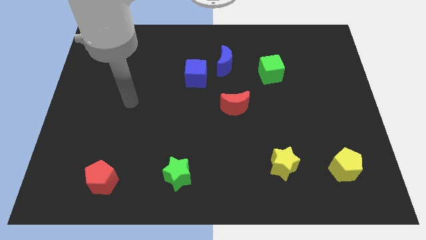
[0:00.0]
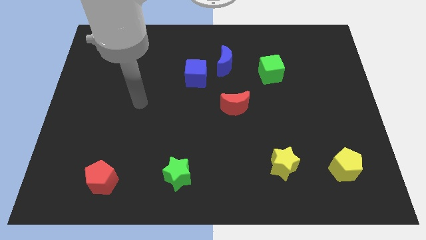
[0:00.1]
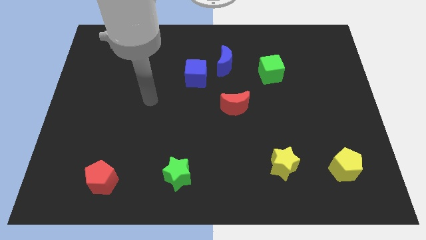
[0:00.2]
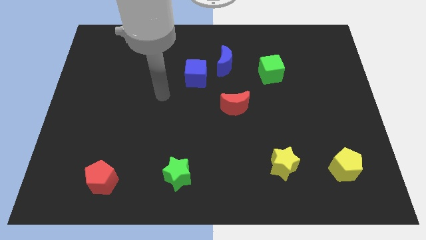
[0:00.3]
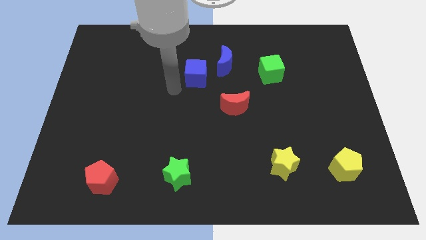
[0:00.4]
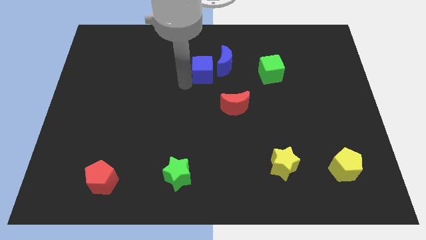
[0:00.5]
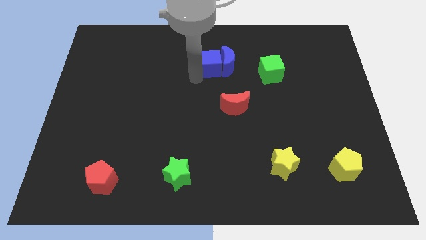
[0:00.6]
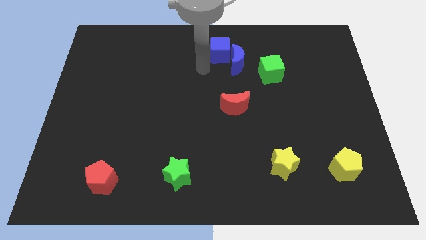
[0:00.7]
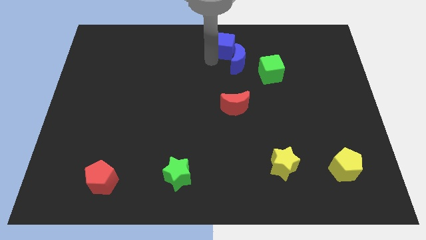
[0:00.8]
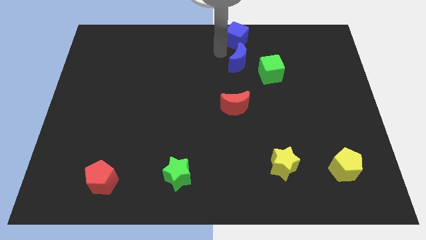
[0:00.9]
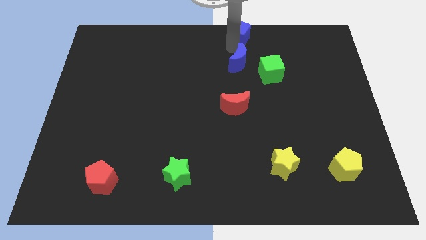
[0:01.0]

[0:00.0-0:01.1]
separate the blue moon from the blue cube

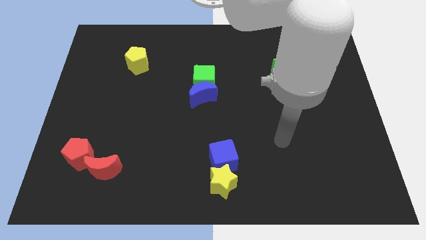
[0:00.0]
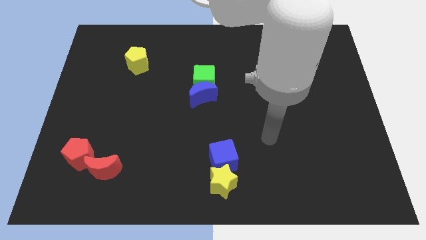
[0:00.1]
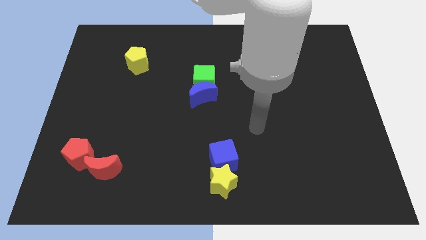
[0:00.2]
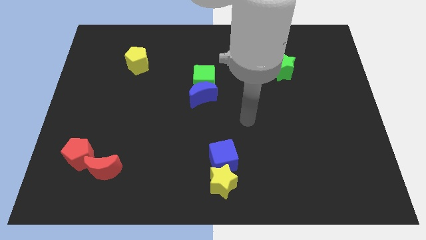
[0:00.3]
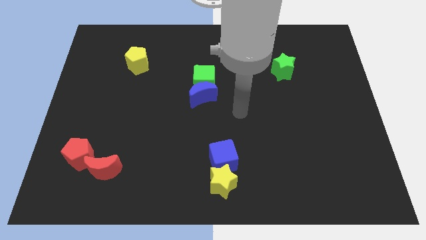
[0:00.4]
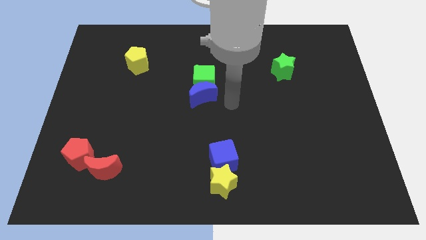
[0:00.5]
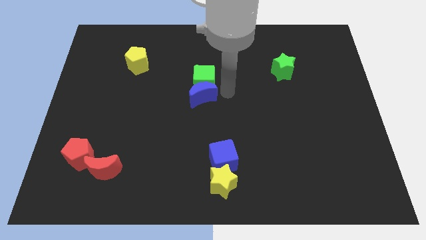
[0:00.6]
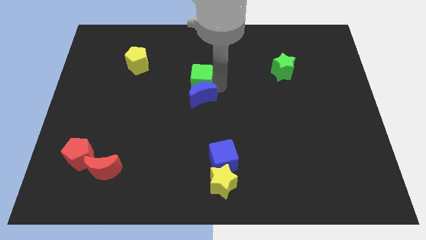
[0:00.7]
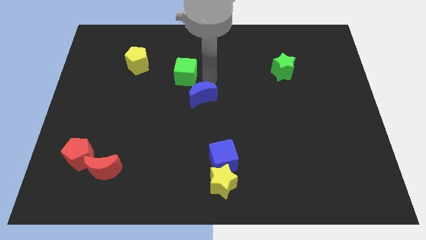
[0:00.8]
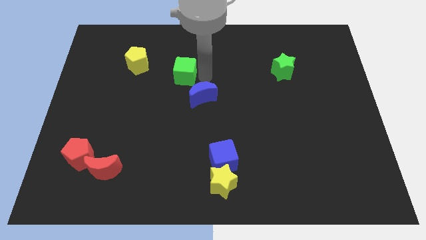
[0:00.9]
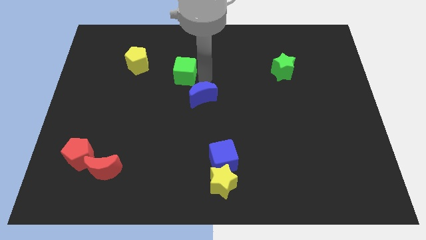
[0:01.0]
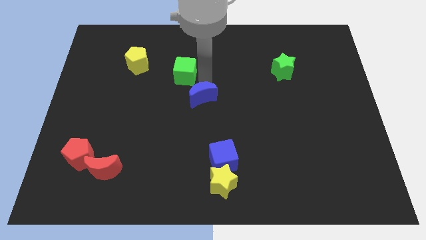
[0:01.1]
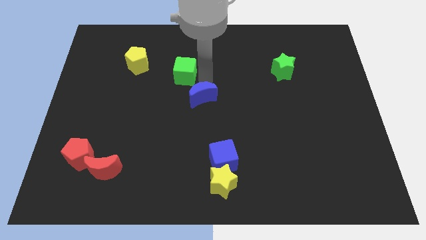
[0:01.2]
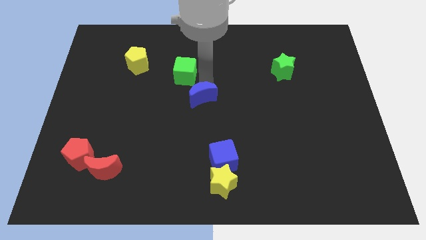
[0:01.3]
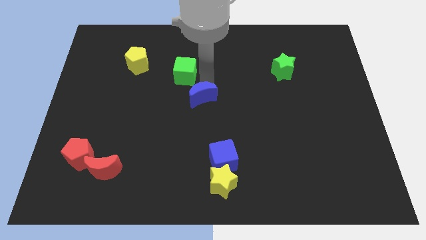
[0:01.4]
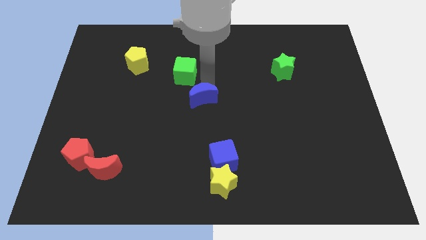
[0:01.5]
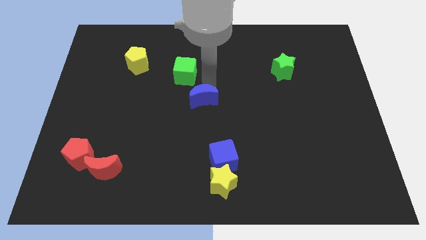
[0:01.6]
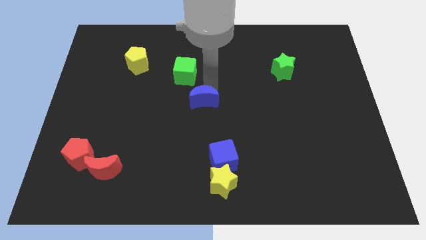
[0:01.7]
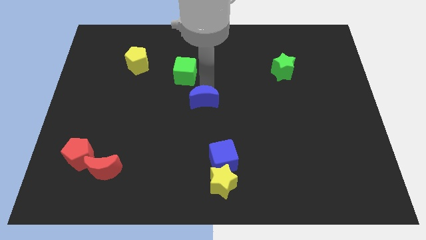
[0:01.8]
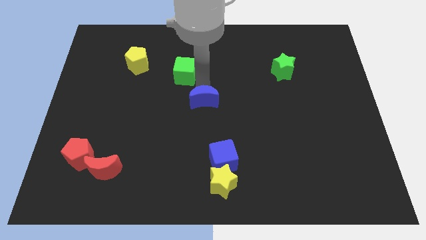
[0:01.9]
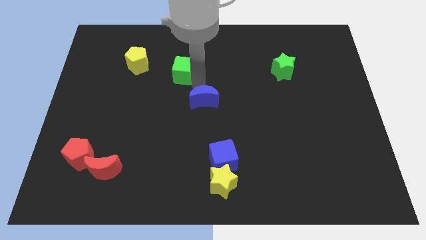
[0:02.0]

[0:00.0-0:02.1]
move the blue moon away from the green cube

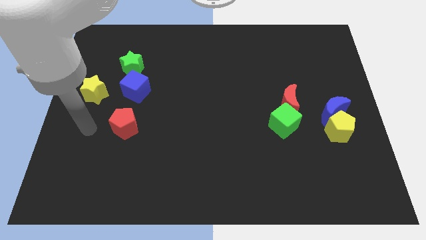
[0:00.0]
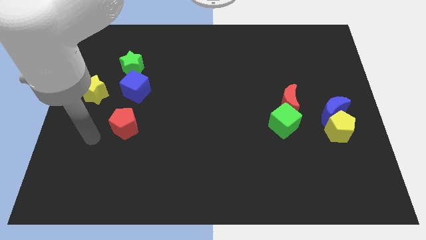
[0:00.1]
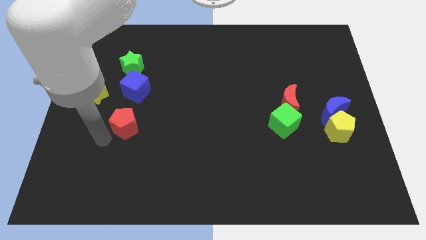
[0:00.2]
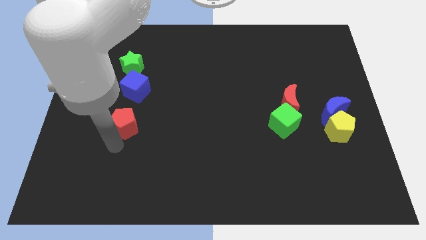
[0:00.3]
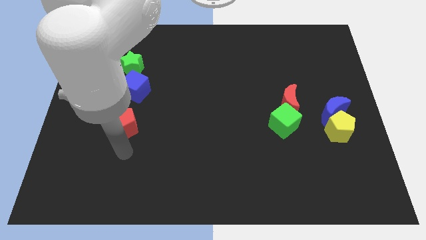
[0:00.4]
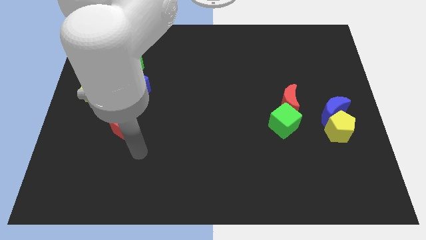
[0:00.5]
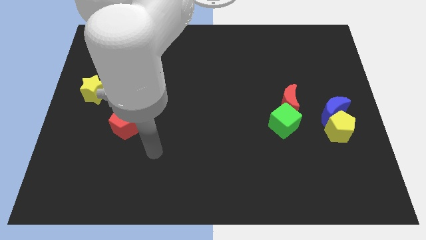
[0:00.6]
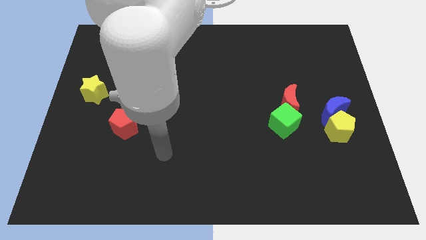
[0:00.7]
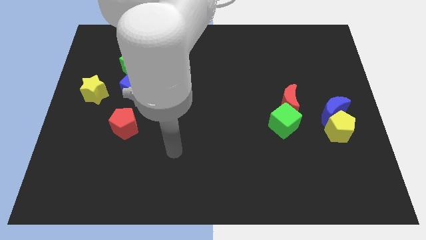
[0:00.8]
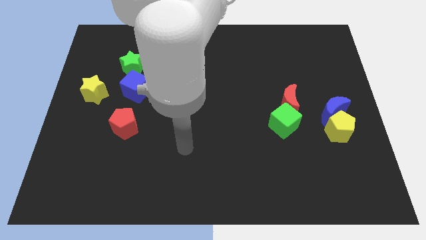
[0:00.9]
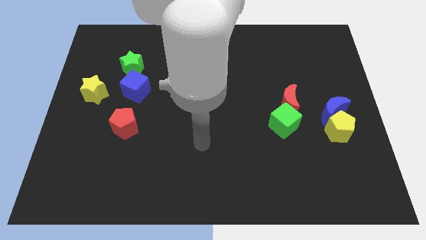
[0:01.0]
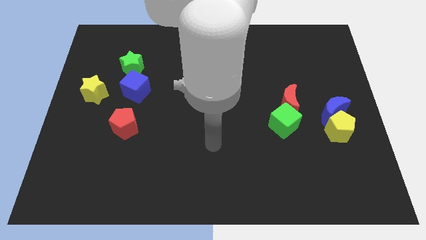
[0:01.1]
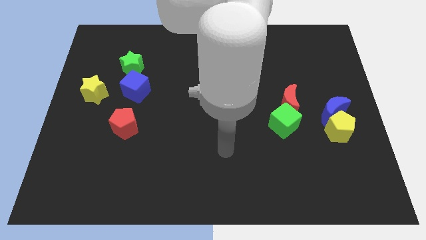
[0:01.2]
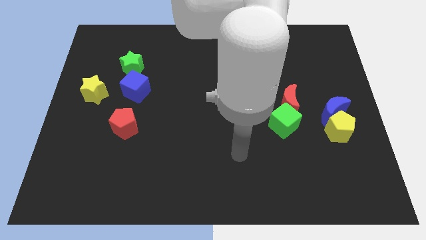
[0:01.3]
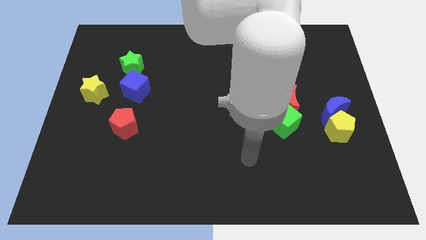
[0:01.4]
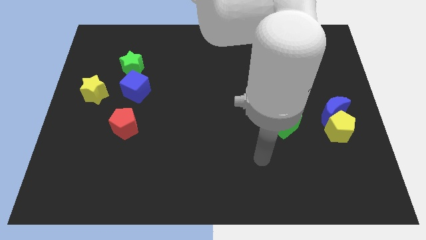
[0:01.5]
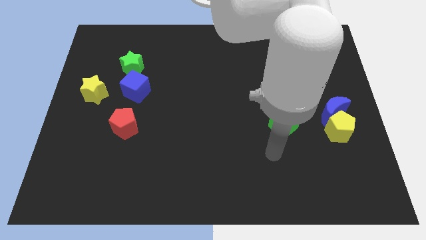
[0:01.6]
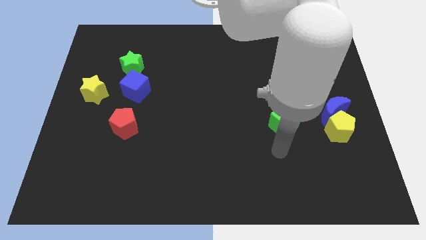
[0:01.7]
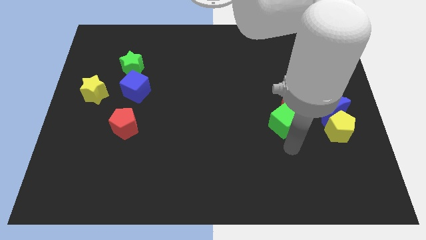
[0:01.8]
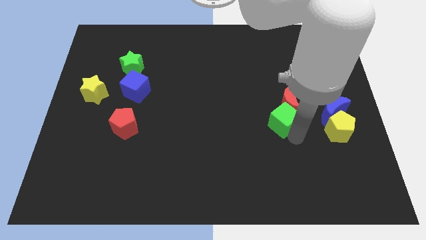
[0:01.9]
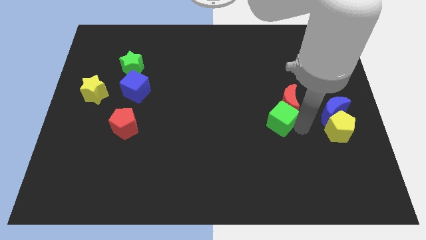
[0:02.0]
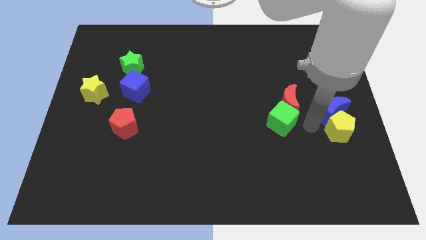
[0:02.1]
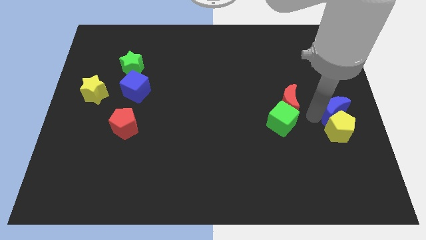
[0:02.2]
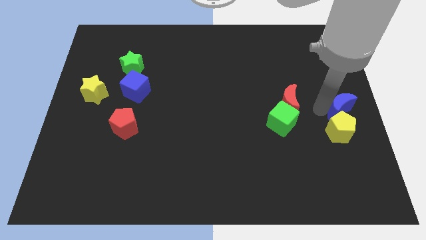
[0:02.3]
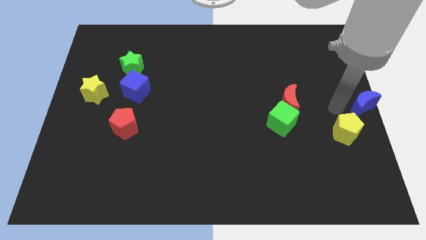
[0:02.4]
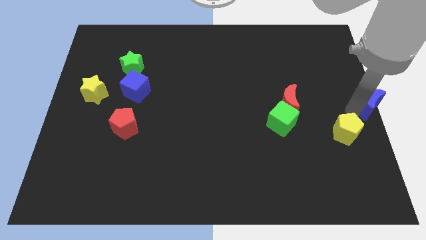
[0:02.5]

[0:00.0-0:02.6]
pull the yellow pentagon apart from the blue moon

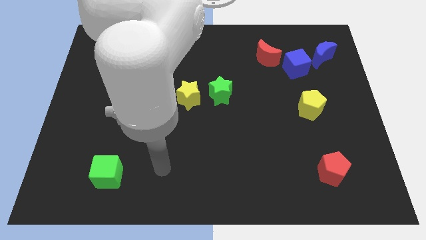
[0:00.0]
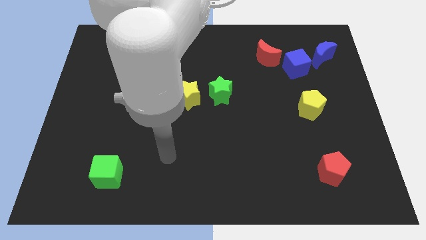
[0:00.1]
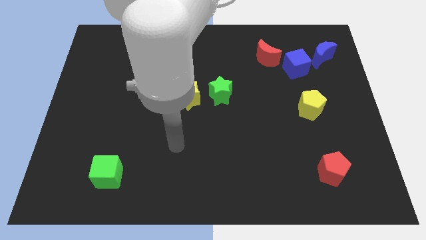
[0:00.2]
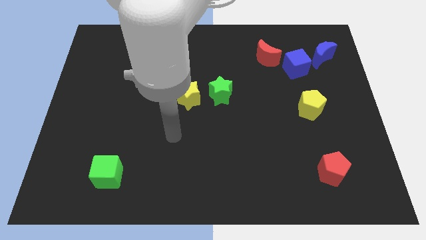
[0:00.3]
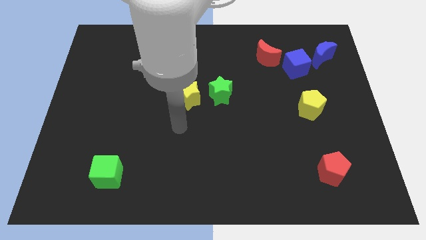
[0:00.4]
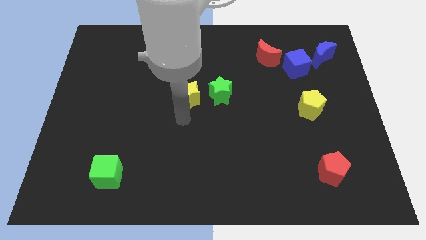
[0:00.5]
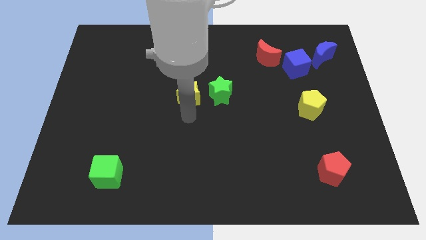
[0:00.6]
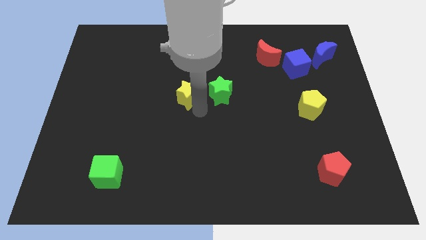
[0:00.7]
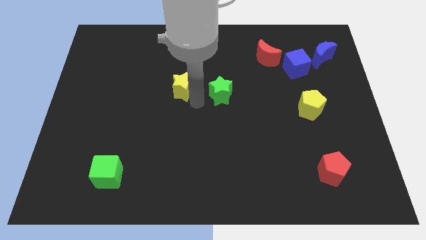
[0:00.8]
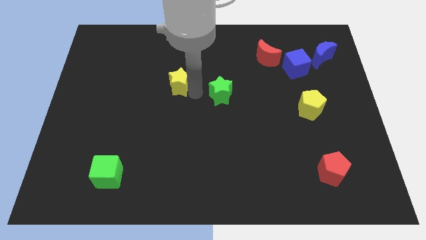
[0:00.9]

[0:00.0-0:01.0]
move the green star away from the yellow star

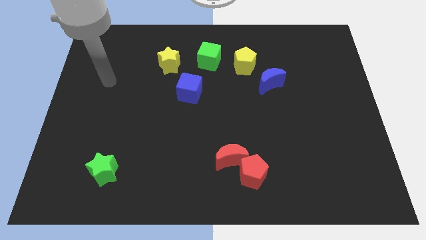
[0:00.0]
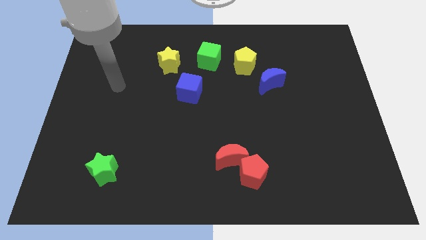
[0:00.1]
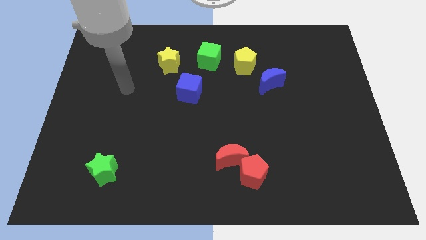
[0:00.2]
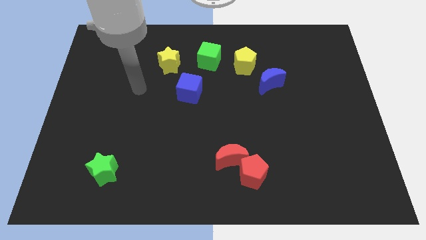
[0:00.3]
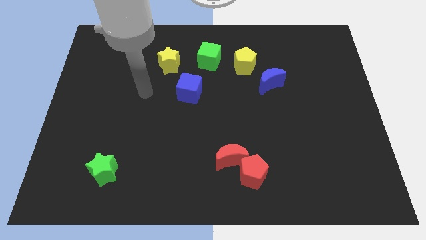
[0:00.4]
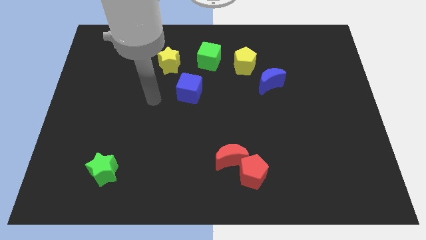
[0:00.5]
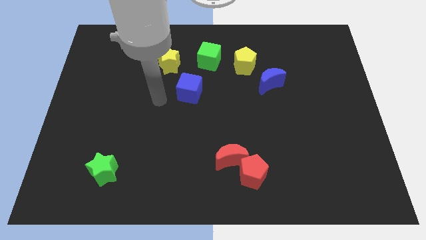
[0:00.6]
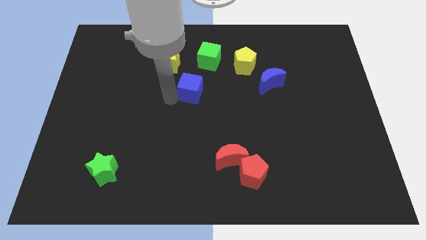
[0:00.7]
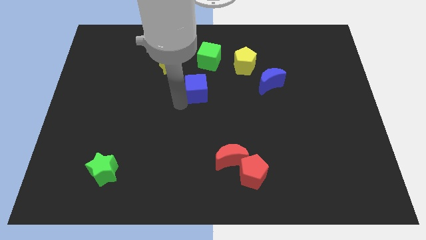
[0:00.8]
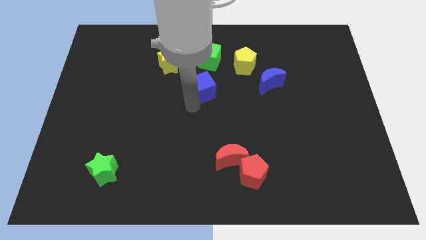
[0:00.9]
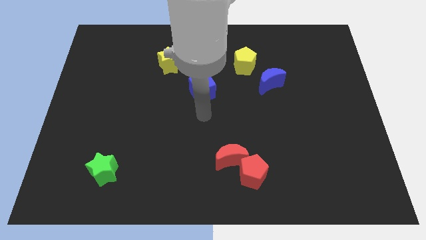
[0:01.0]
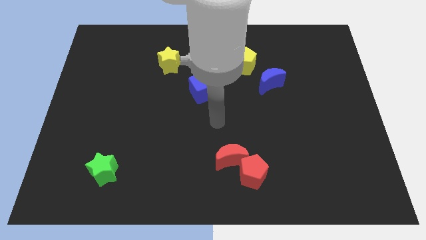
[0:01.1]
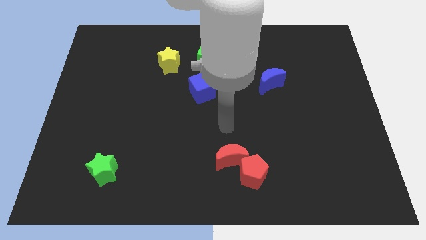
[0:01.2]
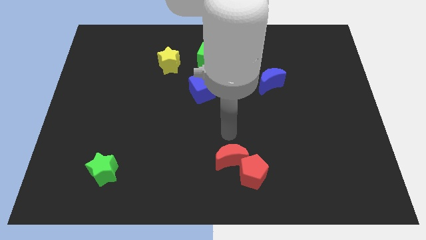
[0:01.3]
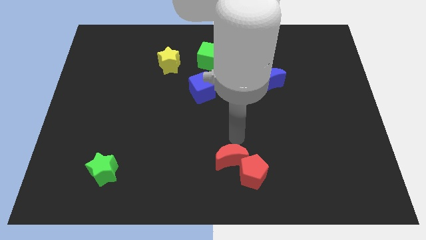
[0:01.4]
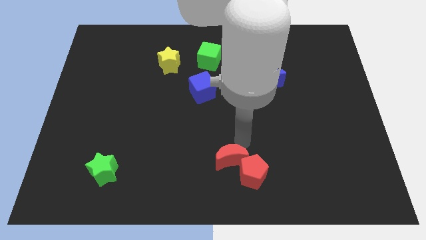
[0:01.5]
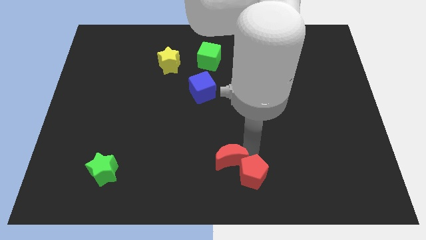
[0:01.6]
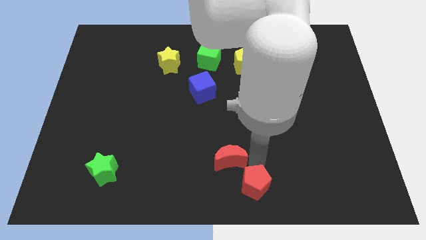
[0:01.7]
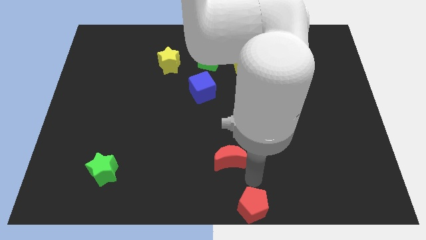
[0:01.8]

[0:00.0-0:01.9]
move the red moon away from the red pentagon

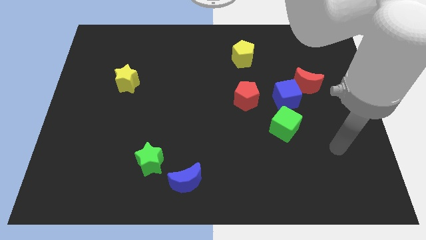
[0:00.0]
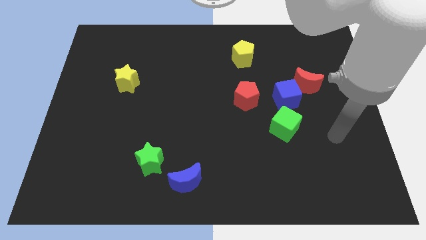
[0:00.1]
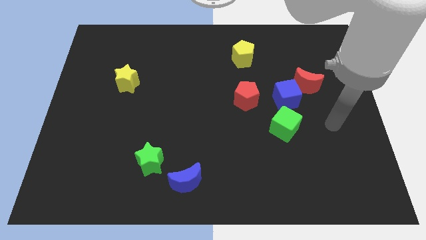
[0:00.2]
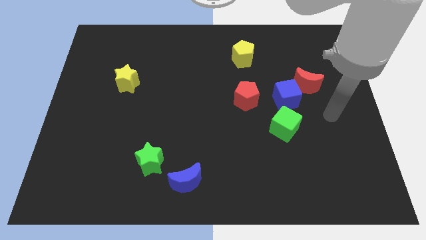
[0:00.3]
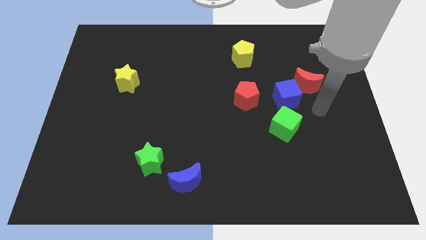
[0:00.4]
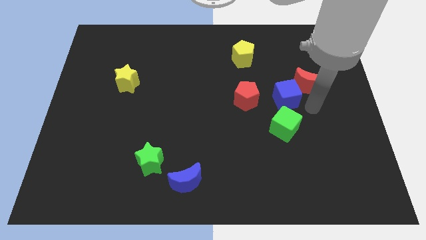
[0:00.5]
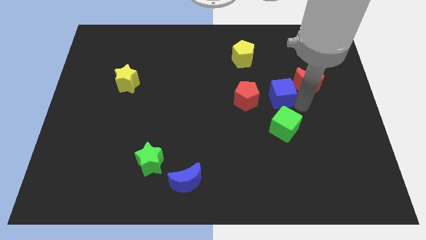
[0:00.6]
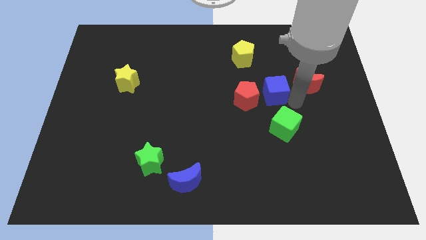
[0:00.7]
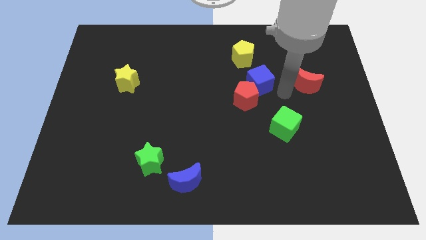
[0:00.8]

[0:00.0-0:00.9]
move the red moon away from the blue cube
